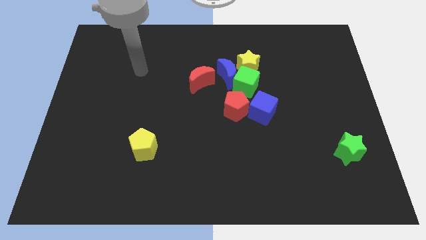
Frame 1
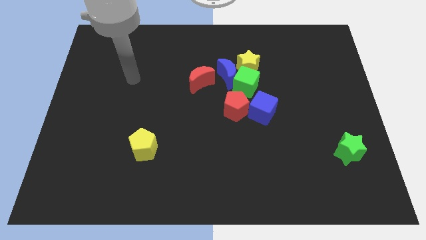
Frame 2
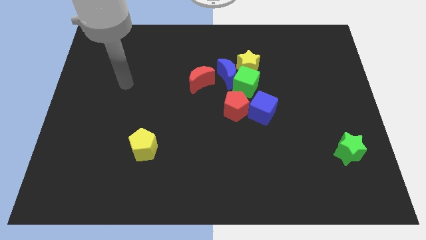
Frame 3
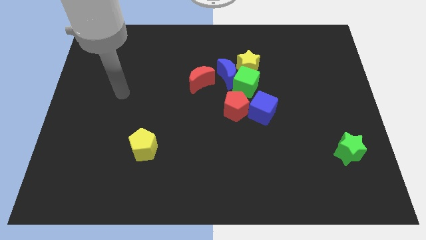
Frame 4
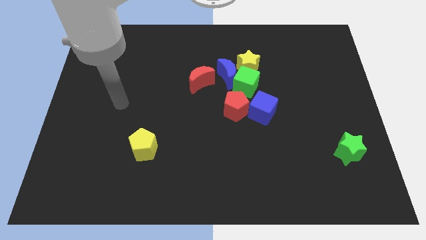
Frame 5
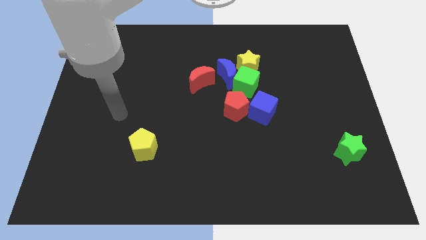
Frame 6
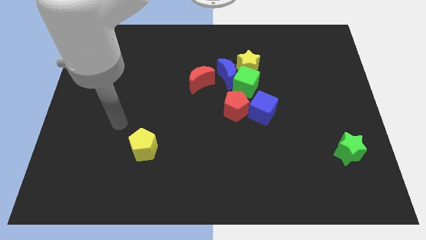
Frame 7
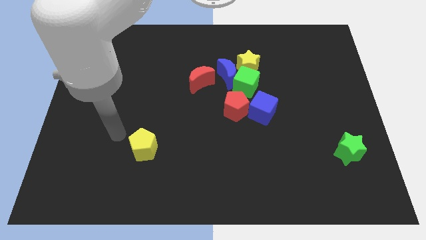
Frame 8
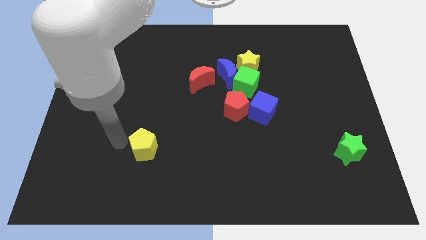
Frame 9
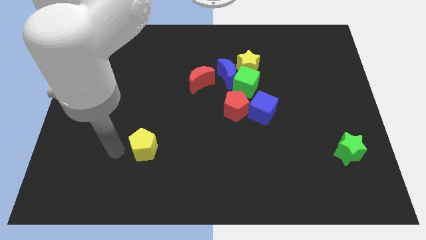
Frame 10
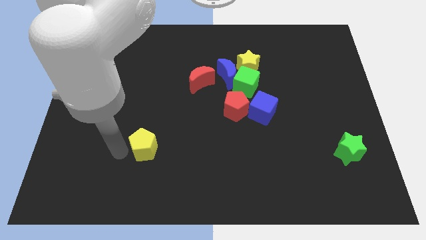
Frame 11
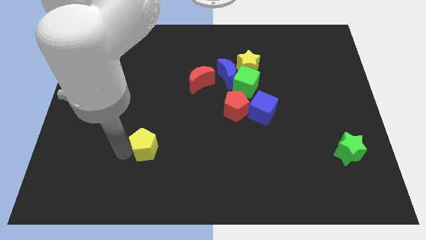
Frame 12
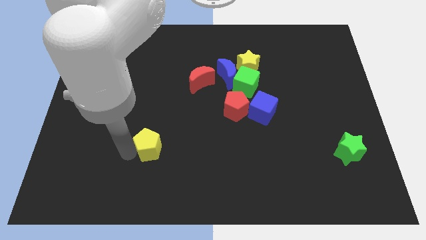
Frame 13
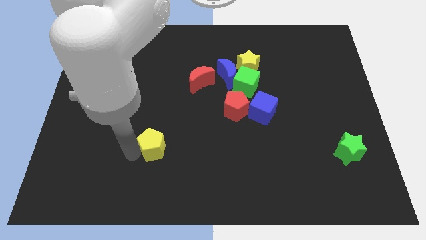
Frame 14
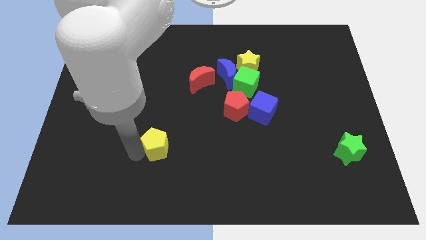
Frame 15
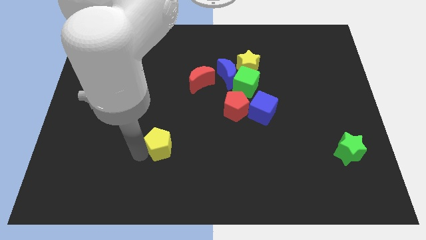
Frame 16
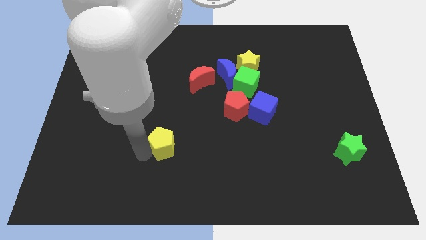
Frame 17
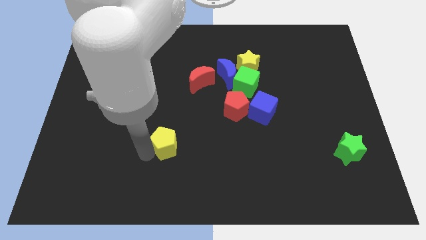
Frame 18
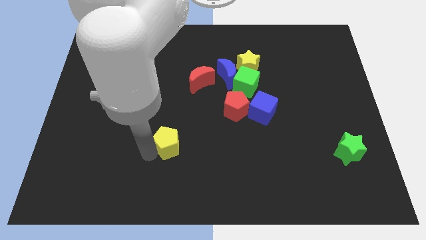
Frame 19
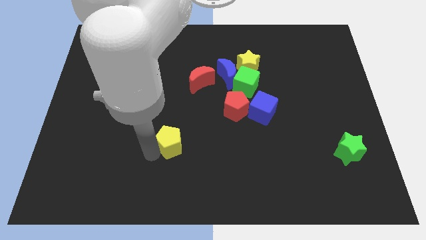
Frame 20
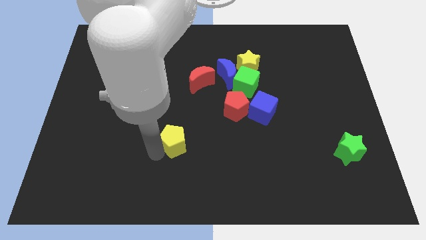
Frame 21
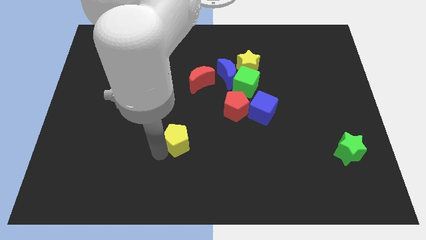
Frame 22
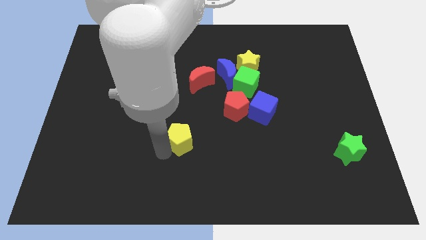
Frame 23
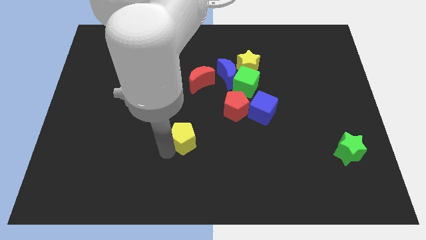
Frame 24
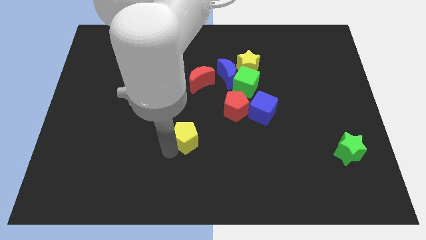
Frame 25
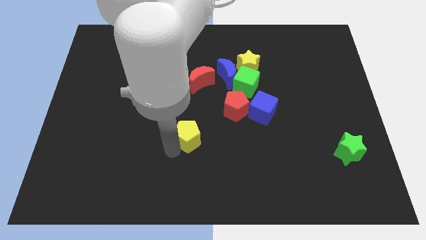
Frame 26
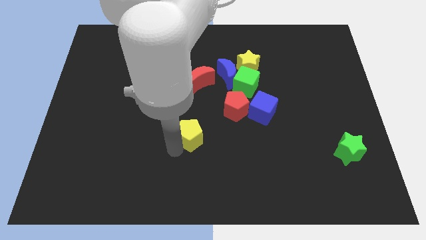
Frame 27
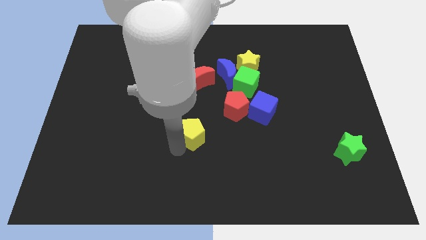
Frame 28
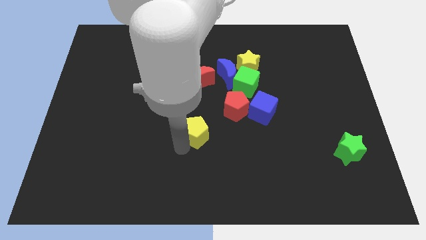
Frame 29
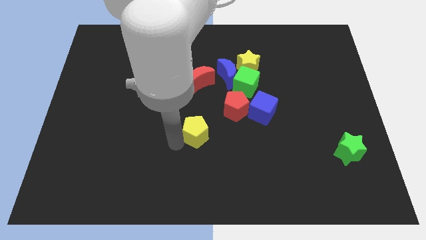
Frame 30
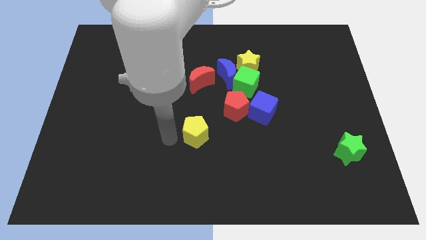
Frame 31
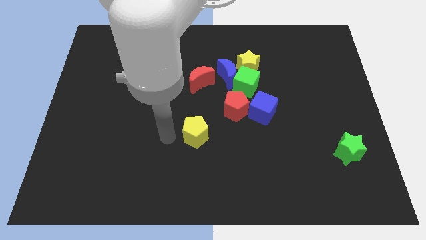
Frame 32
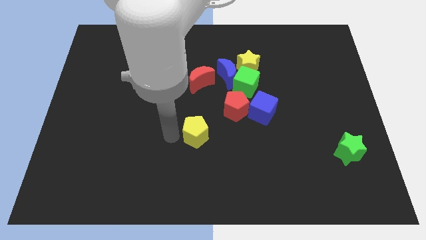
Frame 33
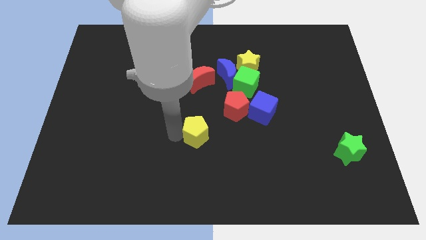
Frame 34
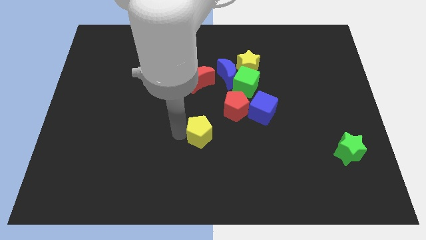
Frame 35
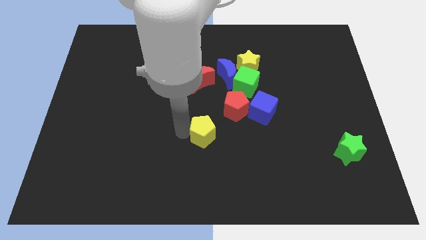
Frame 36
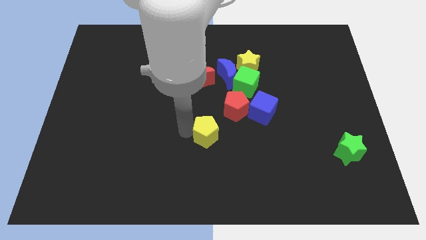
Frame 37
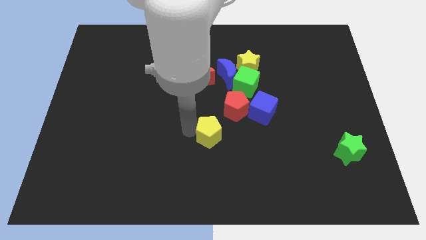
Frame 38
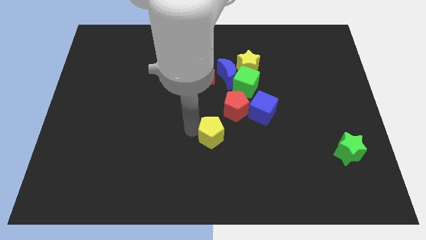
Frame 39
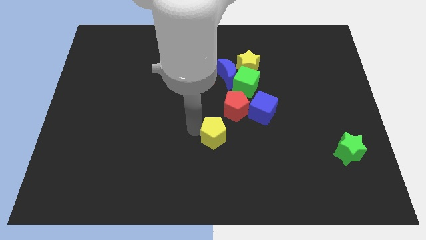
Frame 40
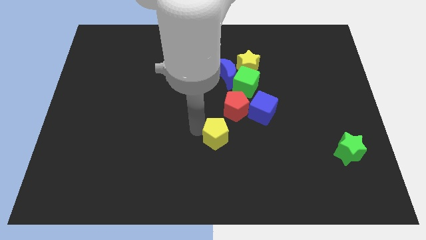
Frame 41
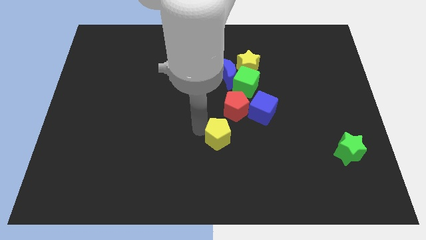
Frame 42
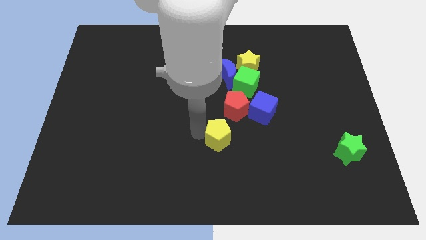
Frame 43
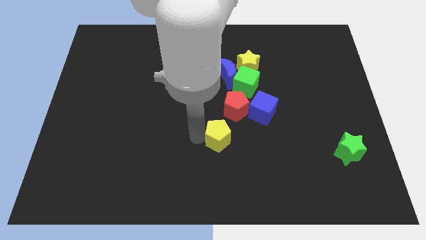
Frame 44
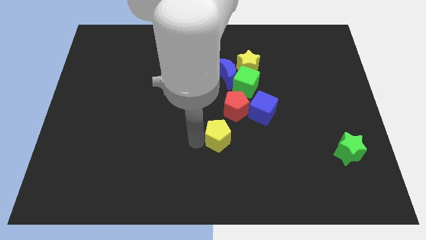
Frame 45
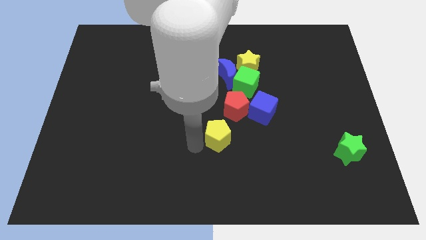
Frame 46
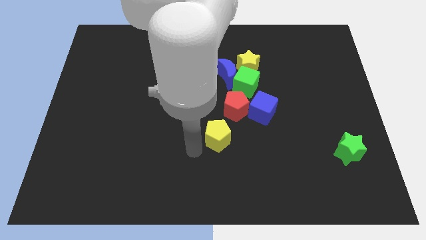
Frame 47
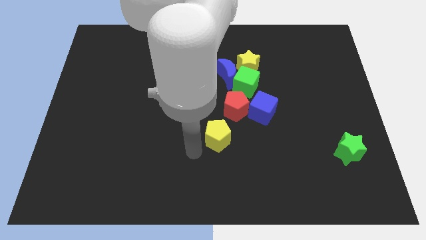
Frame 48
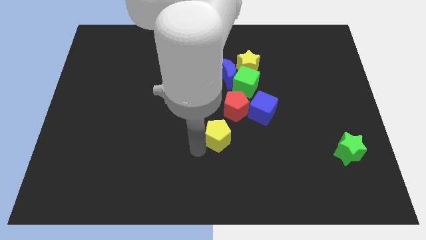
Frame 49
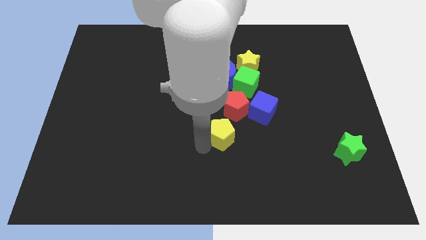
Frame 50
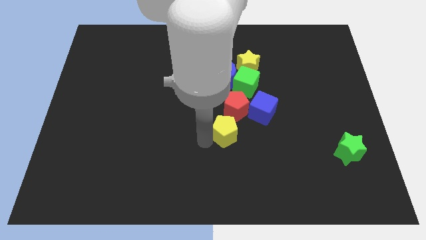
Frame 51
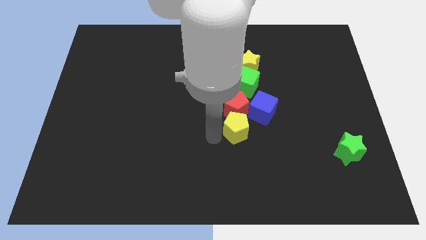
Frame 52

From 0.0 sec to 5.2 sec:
slide the yellow pentagon diagonally down and to the right of the red pentagon

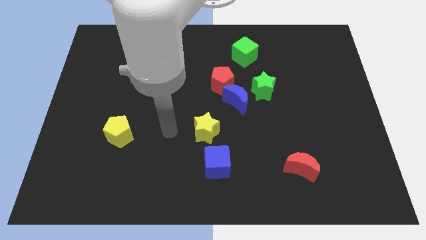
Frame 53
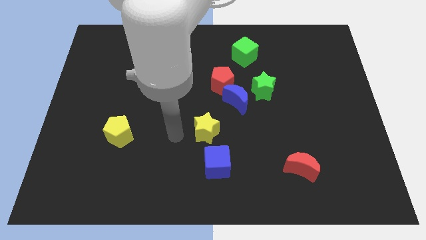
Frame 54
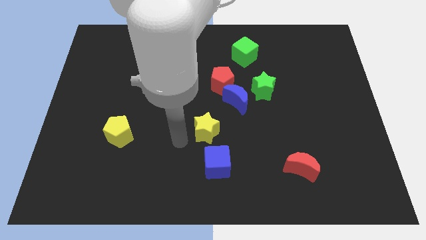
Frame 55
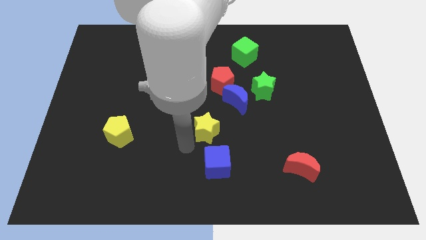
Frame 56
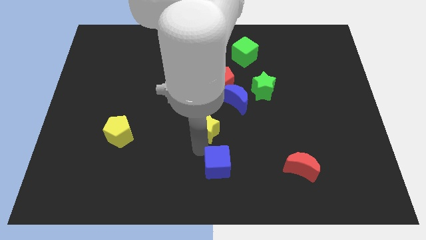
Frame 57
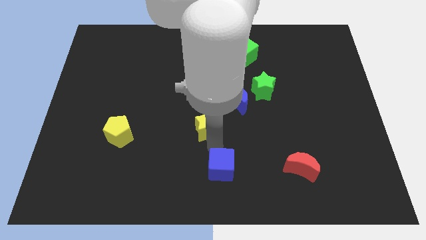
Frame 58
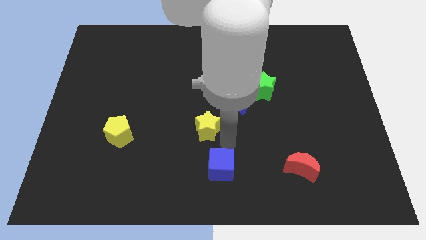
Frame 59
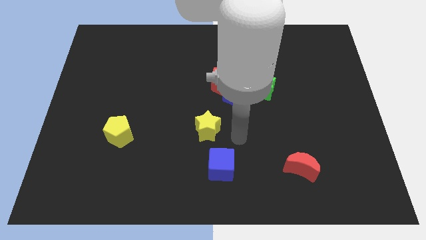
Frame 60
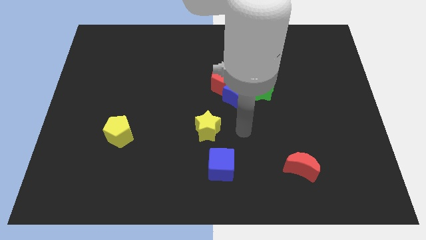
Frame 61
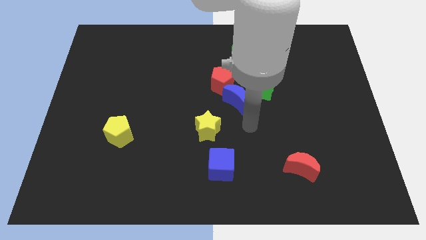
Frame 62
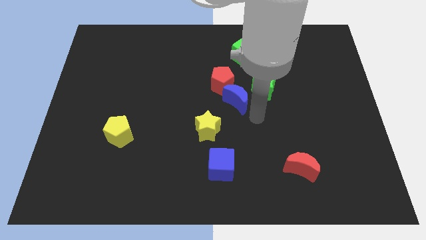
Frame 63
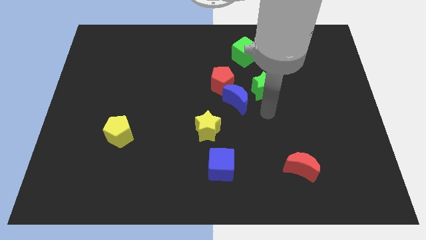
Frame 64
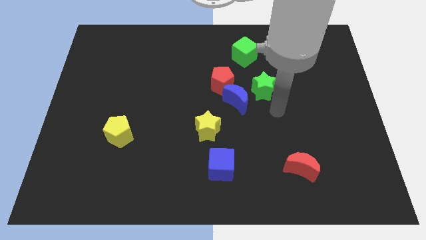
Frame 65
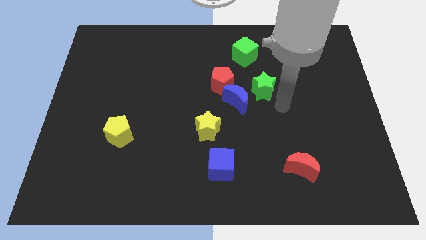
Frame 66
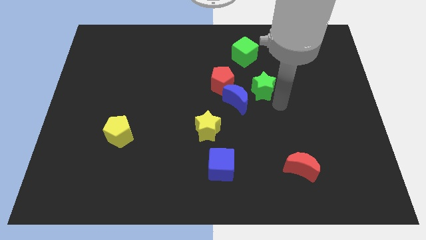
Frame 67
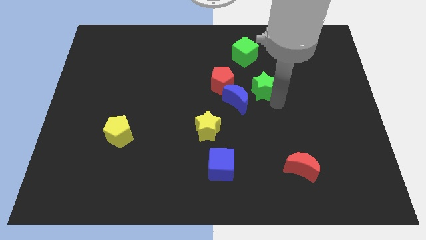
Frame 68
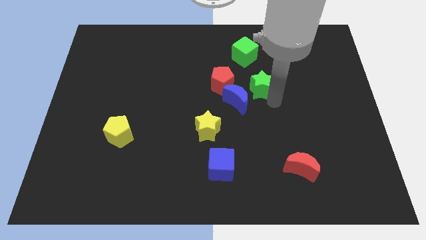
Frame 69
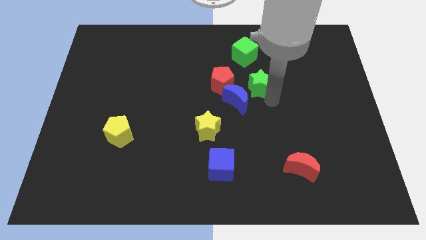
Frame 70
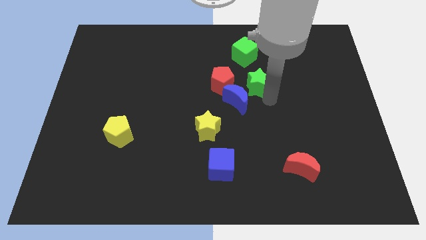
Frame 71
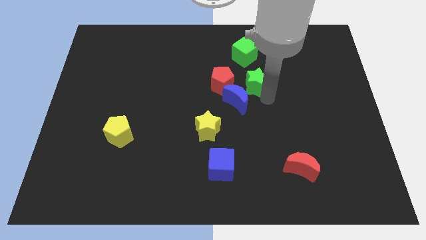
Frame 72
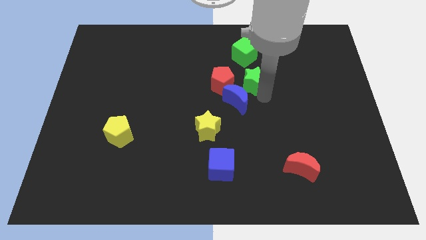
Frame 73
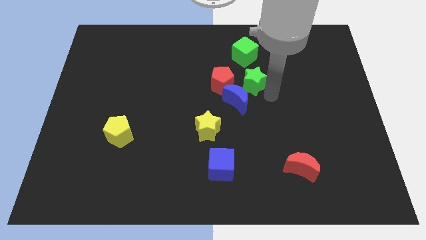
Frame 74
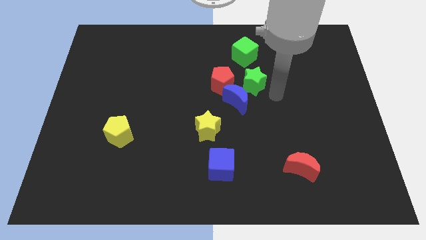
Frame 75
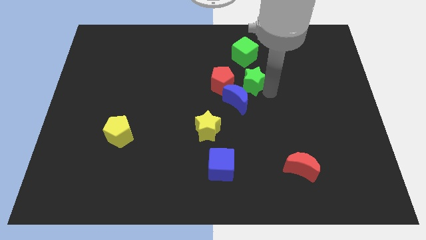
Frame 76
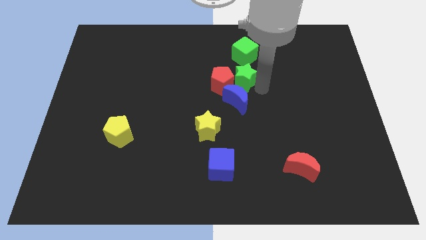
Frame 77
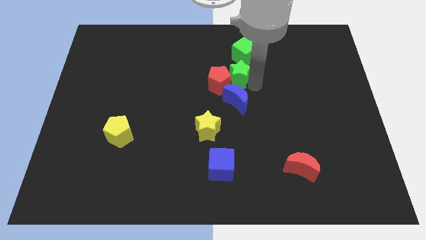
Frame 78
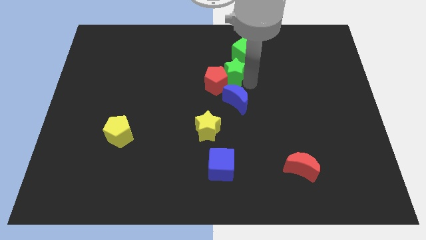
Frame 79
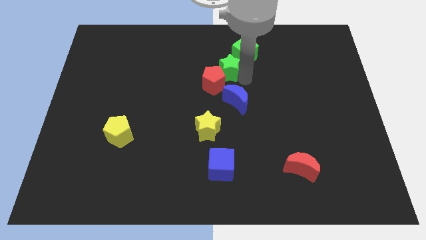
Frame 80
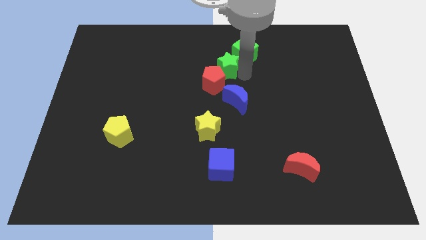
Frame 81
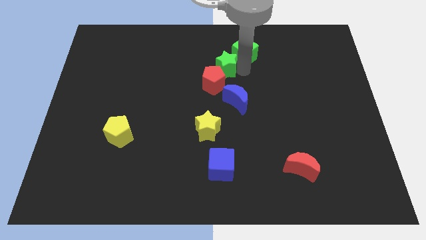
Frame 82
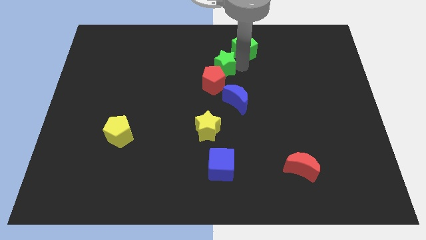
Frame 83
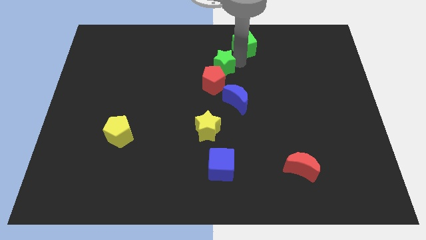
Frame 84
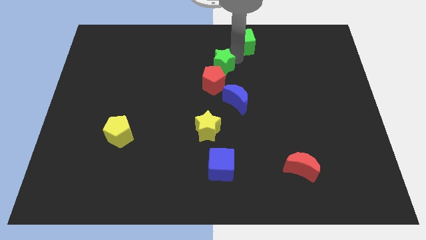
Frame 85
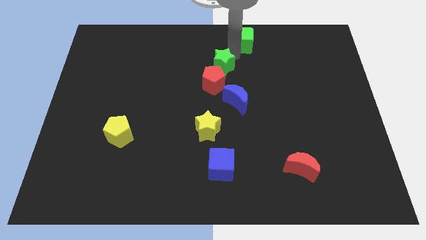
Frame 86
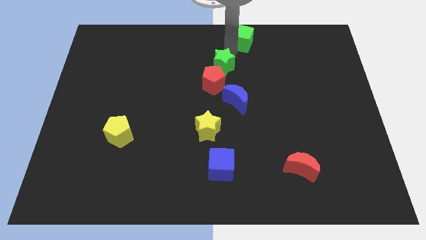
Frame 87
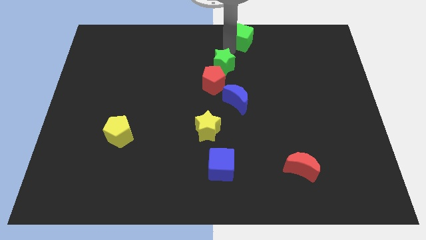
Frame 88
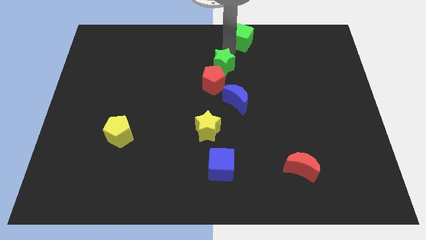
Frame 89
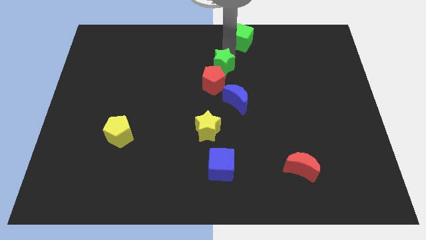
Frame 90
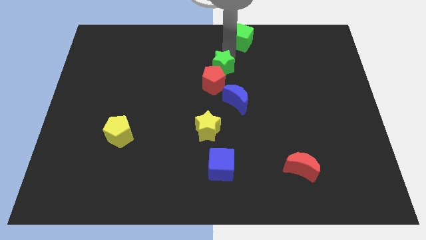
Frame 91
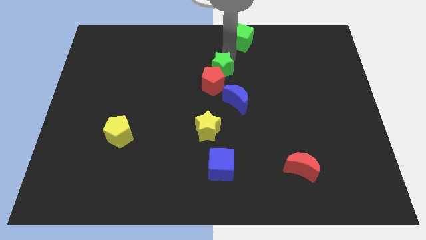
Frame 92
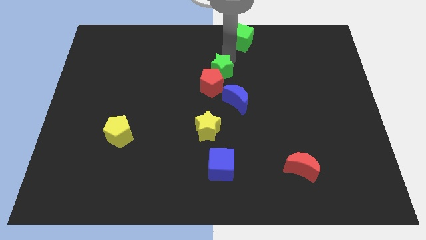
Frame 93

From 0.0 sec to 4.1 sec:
put the green star diagonally up and to the left of the blue moon
